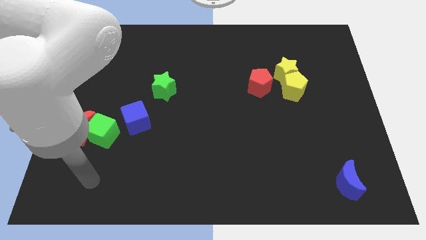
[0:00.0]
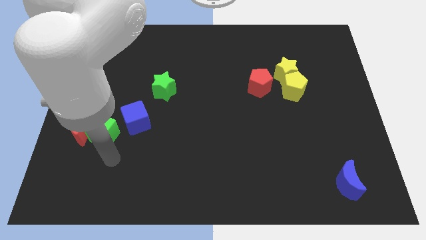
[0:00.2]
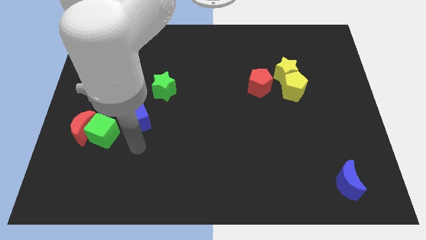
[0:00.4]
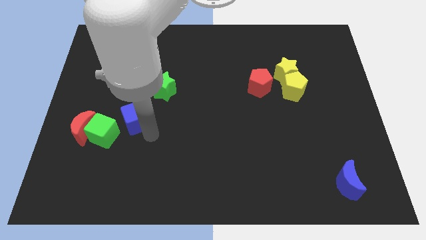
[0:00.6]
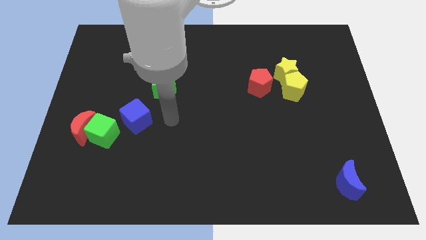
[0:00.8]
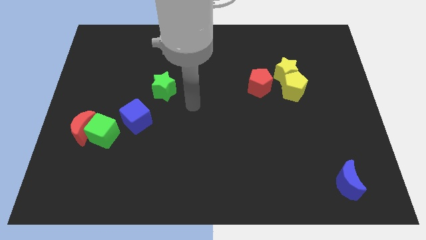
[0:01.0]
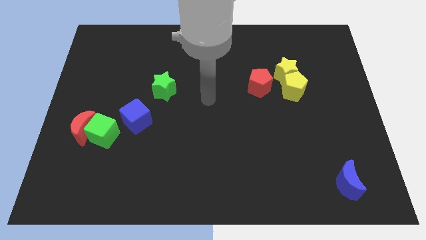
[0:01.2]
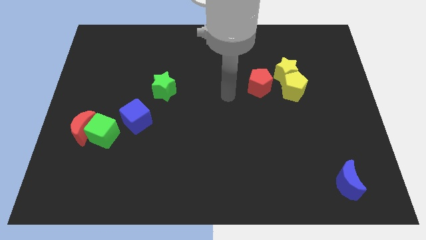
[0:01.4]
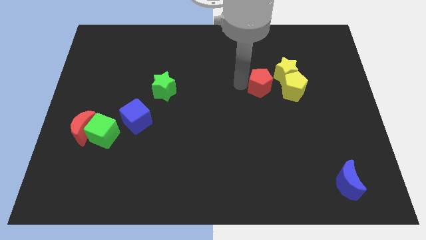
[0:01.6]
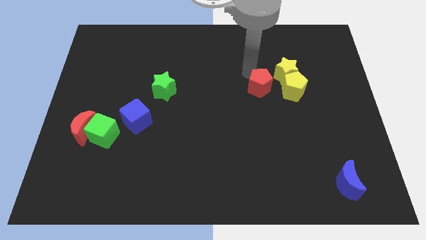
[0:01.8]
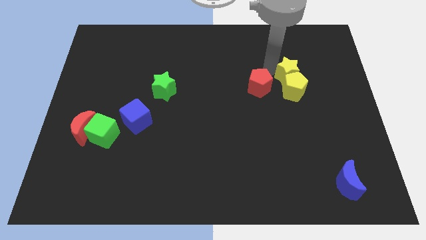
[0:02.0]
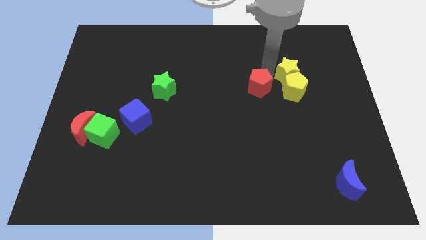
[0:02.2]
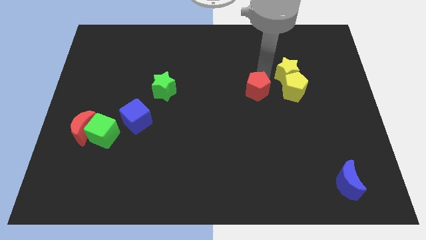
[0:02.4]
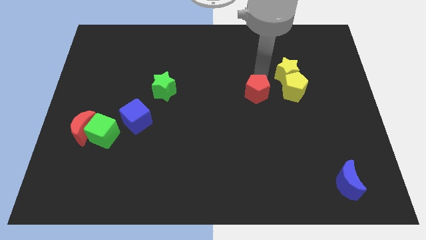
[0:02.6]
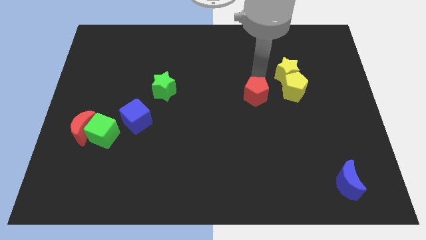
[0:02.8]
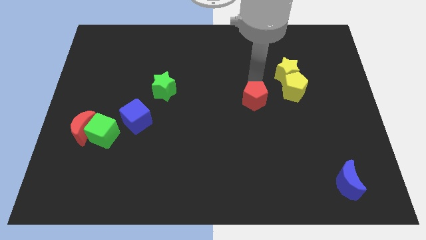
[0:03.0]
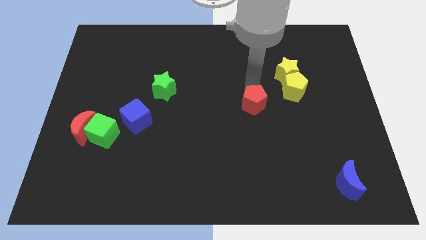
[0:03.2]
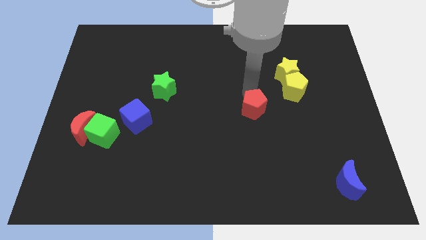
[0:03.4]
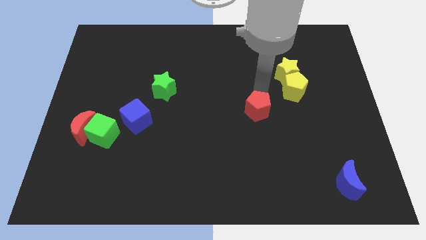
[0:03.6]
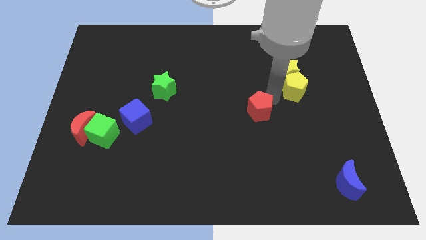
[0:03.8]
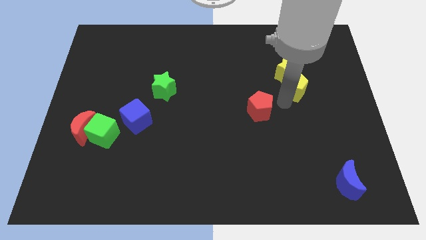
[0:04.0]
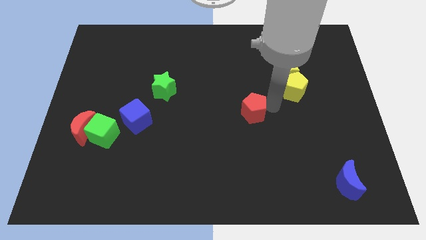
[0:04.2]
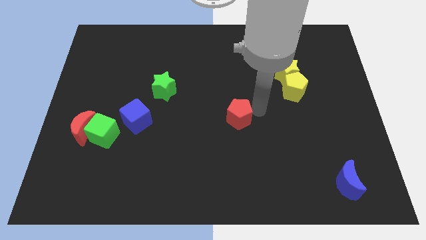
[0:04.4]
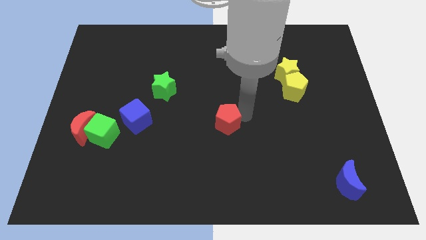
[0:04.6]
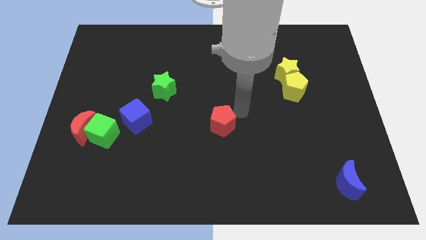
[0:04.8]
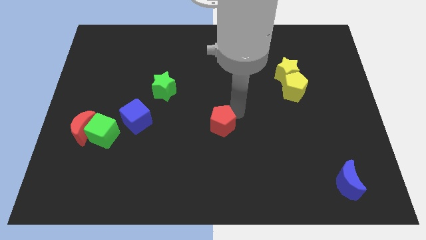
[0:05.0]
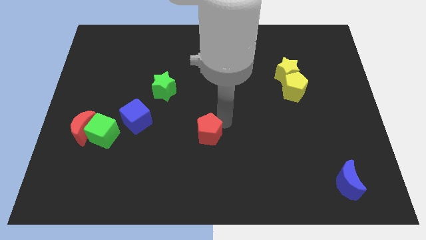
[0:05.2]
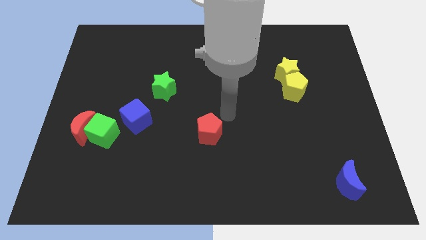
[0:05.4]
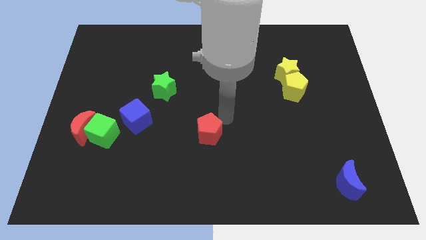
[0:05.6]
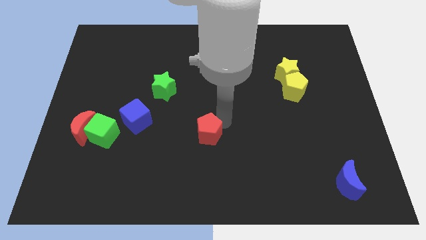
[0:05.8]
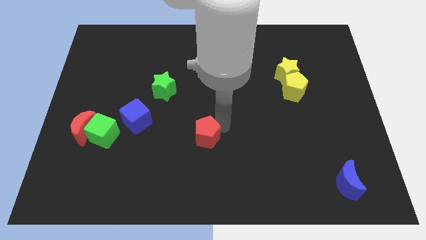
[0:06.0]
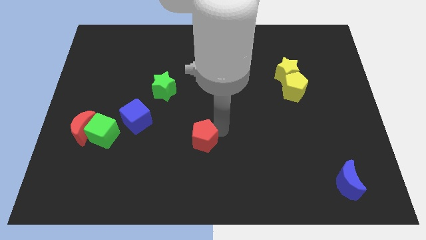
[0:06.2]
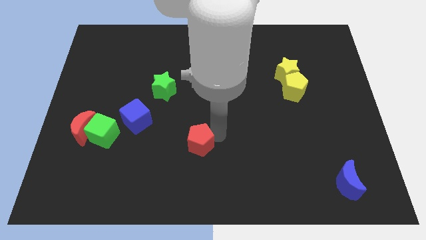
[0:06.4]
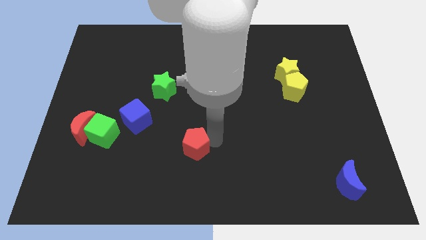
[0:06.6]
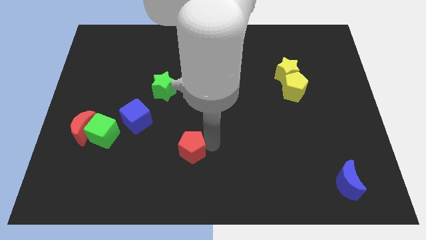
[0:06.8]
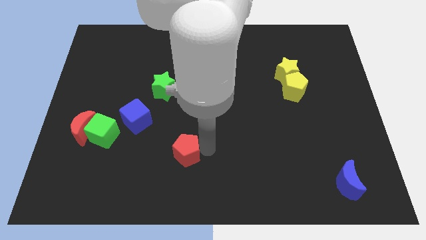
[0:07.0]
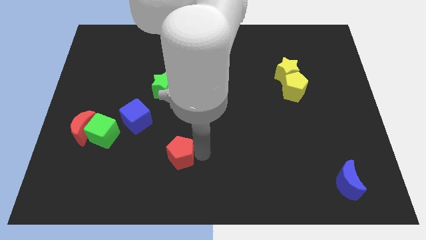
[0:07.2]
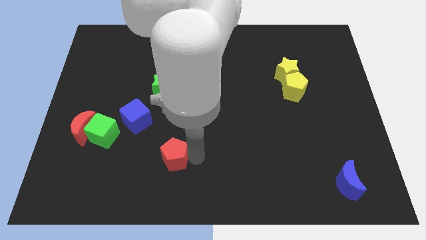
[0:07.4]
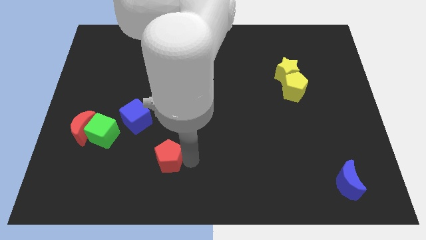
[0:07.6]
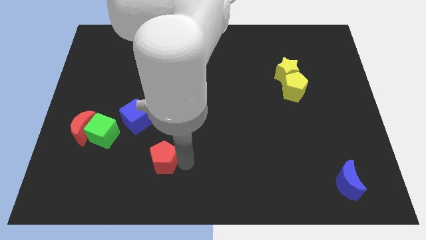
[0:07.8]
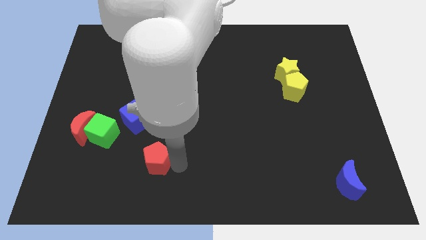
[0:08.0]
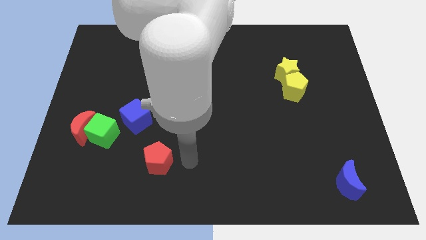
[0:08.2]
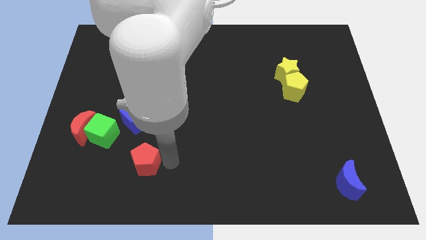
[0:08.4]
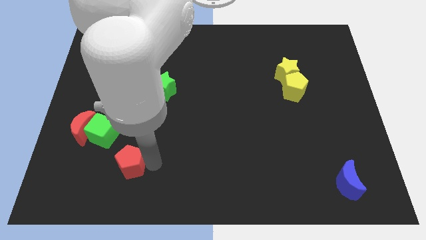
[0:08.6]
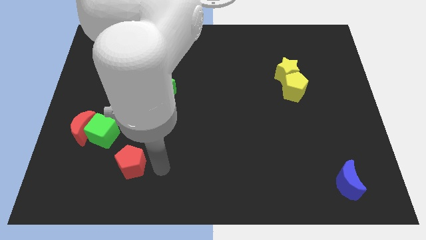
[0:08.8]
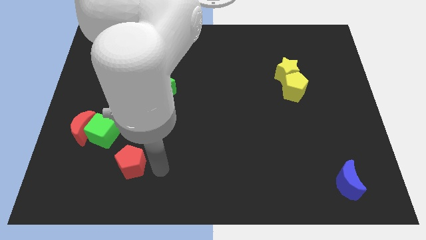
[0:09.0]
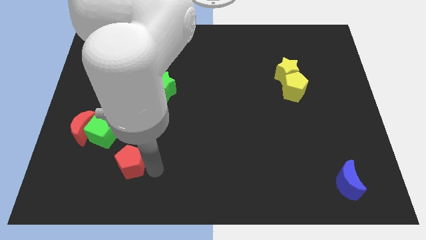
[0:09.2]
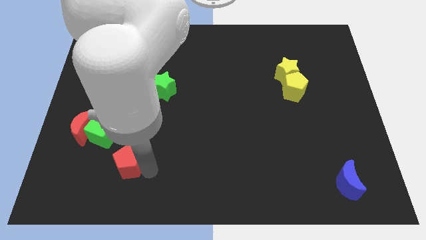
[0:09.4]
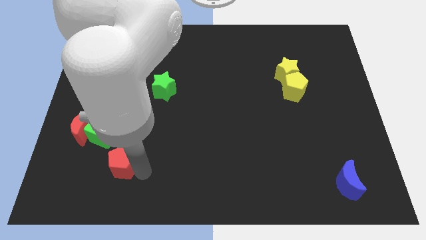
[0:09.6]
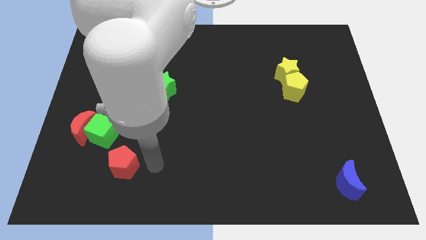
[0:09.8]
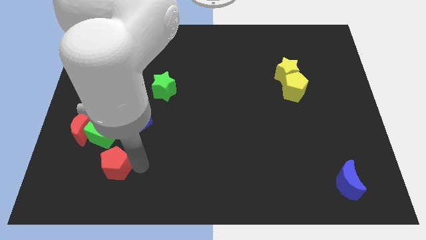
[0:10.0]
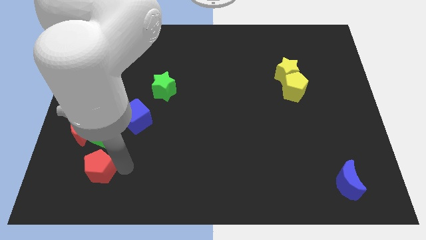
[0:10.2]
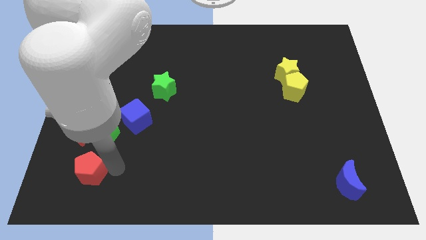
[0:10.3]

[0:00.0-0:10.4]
slide the red pentagon to the bottom of the red moon

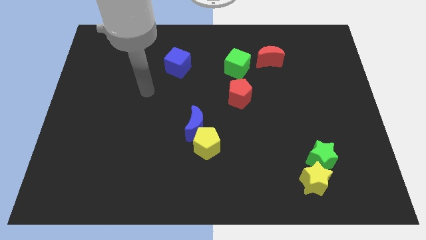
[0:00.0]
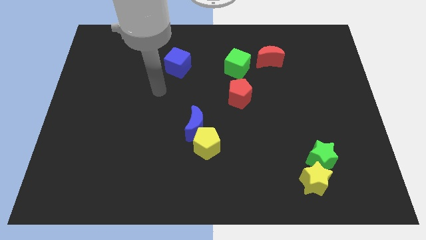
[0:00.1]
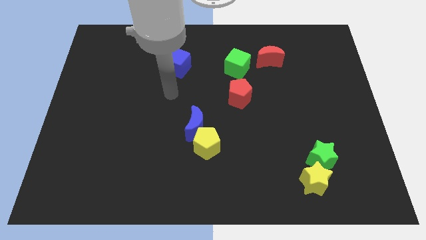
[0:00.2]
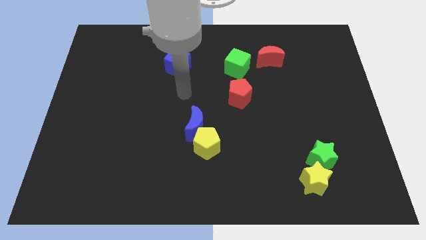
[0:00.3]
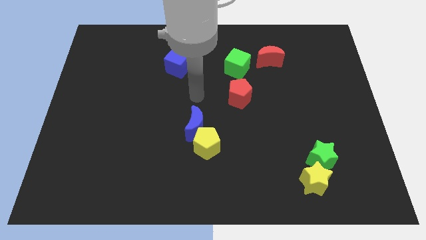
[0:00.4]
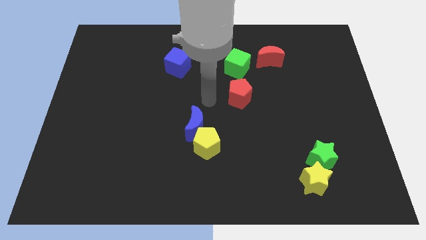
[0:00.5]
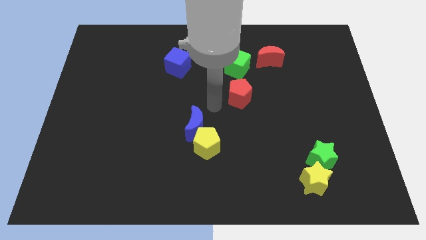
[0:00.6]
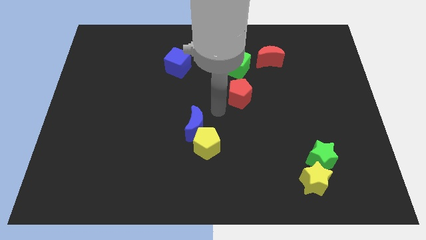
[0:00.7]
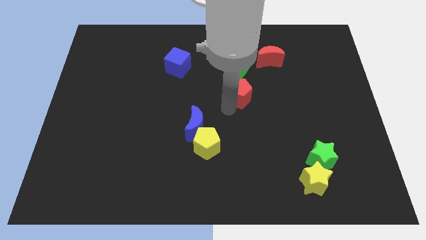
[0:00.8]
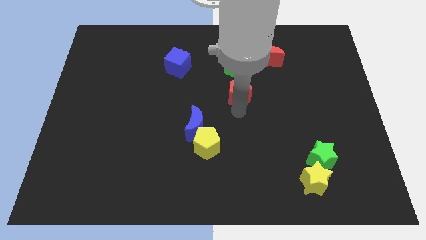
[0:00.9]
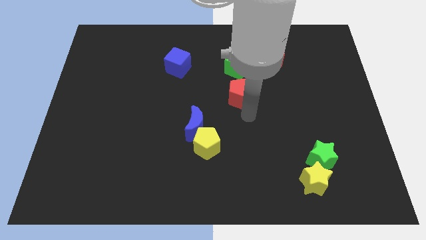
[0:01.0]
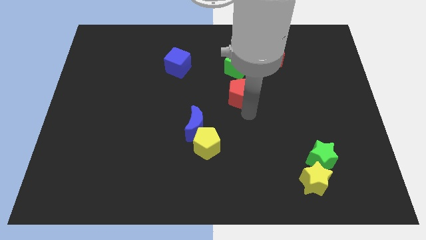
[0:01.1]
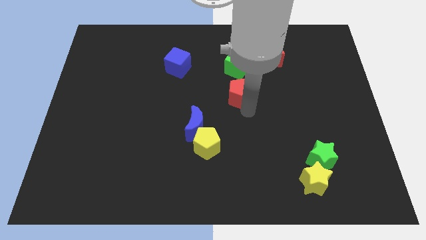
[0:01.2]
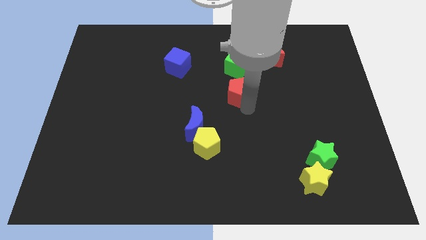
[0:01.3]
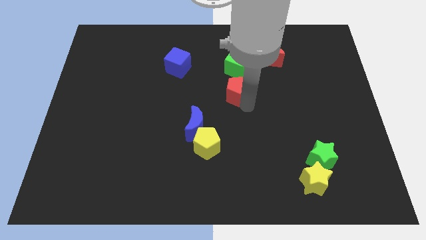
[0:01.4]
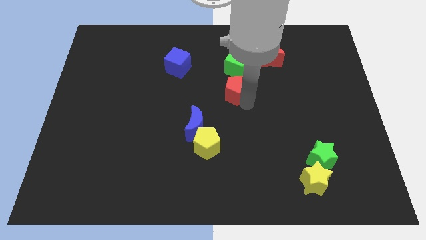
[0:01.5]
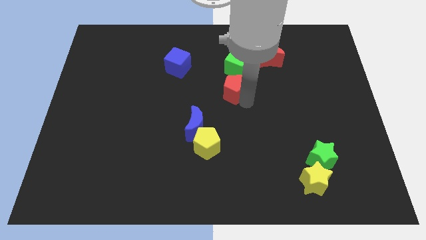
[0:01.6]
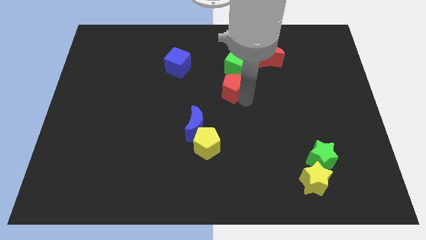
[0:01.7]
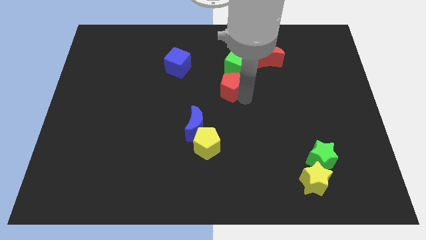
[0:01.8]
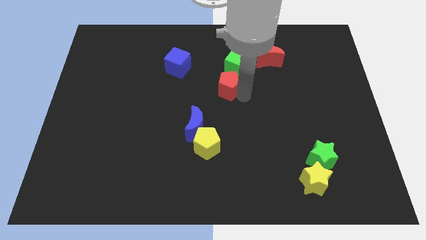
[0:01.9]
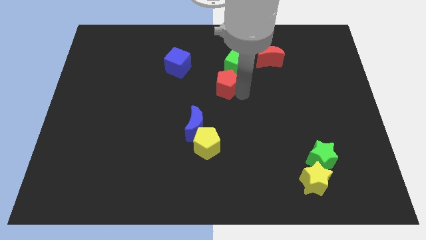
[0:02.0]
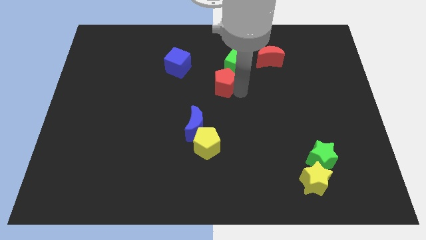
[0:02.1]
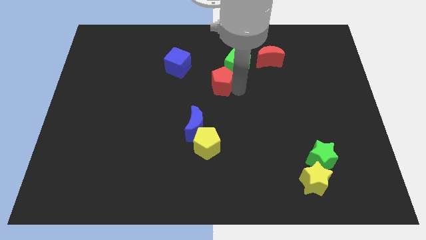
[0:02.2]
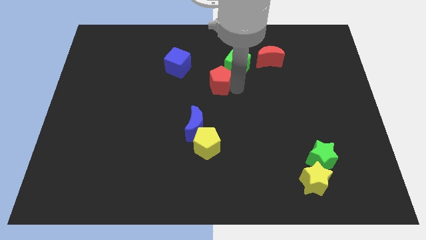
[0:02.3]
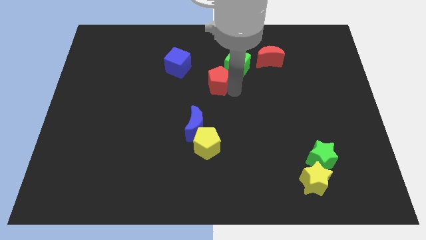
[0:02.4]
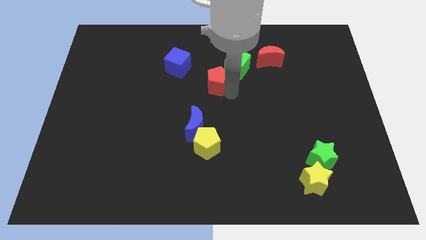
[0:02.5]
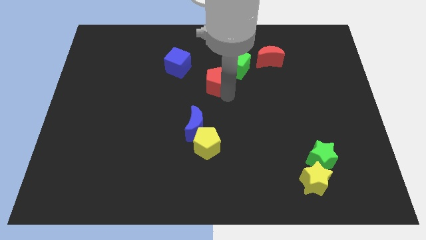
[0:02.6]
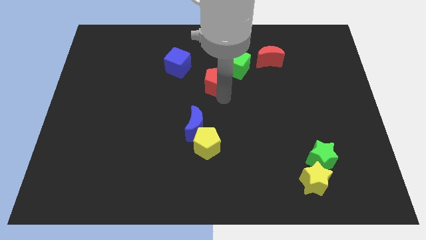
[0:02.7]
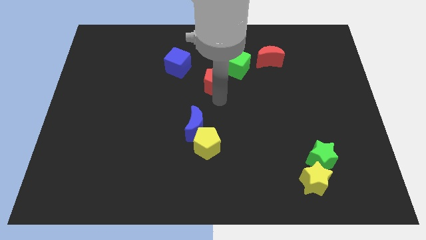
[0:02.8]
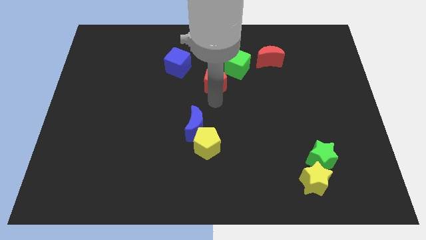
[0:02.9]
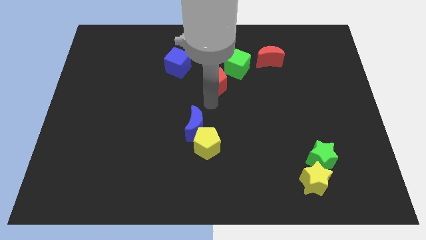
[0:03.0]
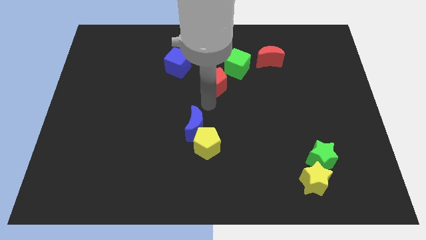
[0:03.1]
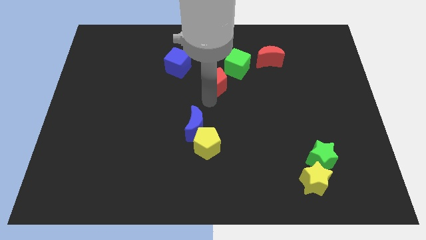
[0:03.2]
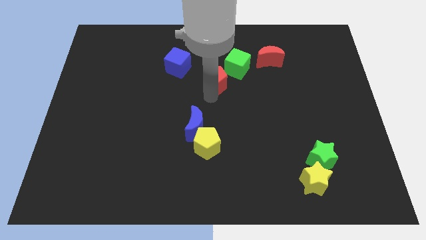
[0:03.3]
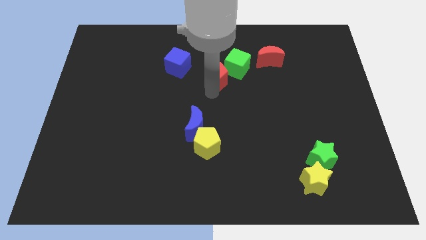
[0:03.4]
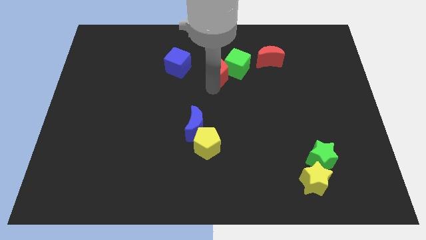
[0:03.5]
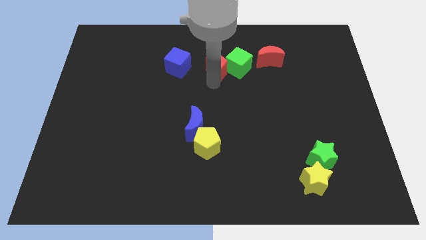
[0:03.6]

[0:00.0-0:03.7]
push the red pentagon just left of the red moon
